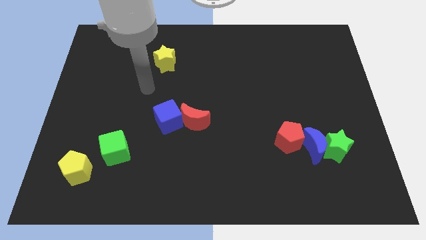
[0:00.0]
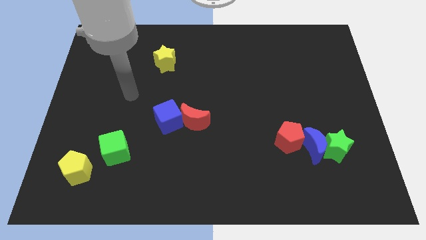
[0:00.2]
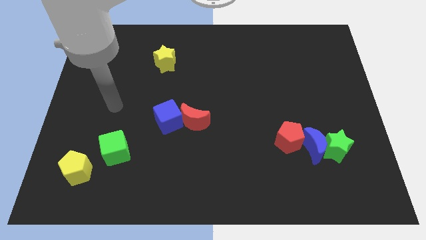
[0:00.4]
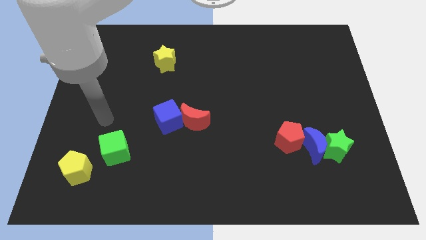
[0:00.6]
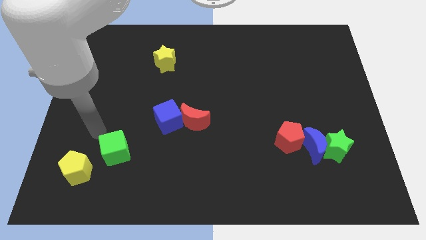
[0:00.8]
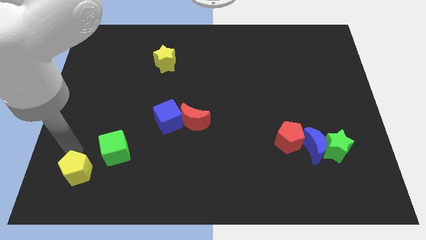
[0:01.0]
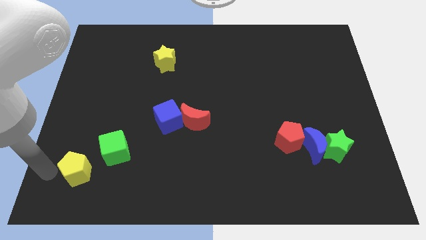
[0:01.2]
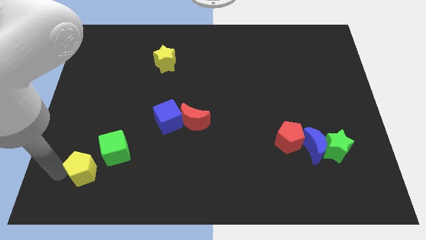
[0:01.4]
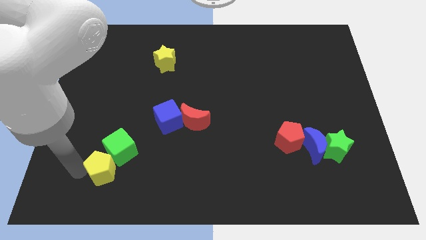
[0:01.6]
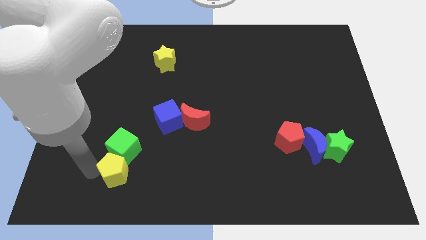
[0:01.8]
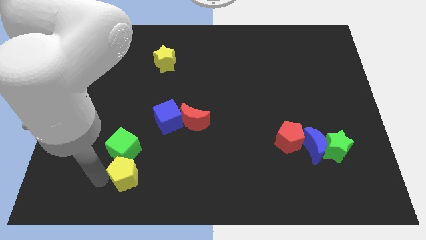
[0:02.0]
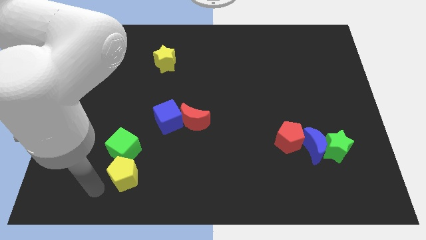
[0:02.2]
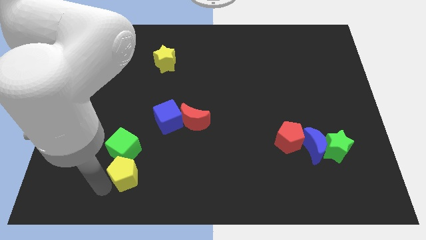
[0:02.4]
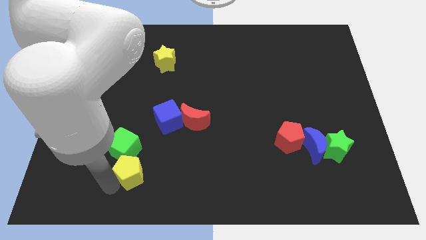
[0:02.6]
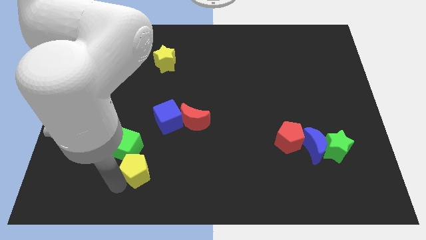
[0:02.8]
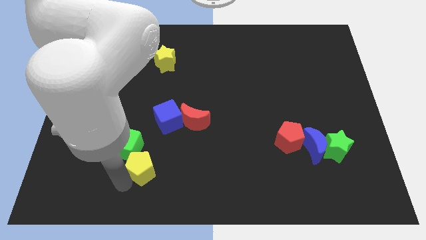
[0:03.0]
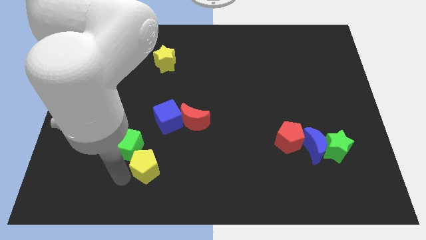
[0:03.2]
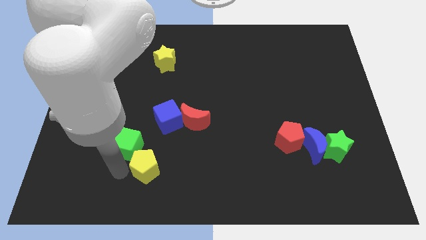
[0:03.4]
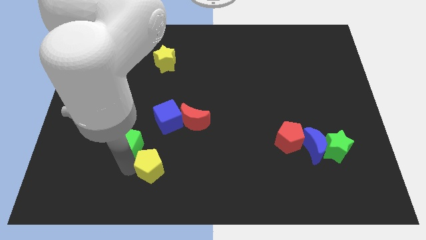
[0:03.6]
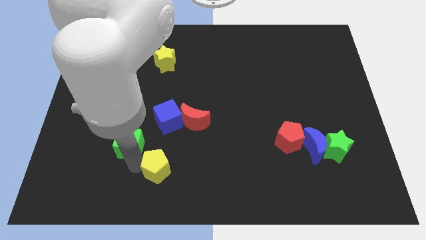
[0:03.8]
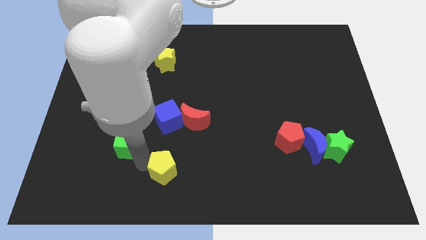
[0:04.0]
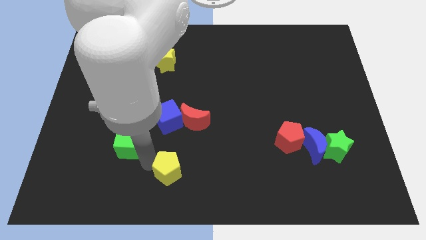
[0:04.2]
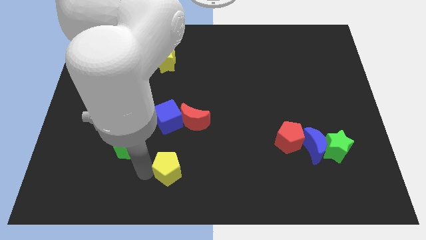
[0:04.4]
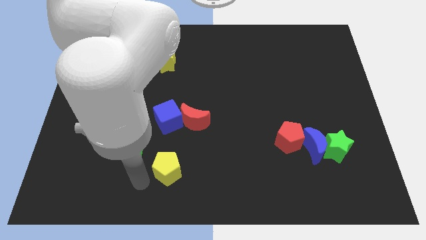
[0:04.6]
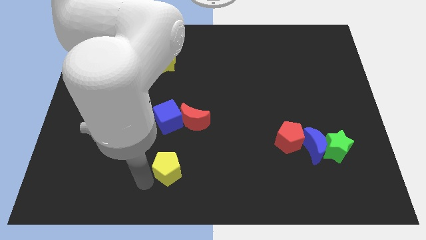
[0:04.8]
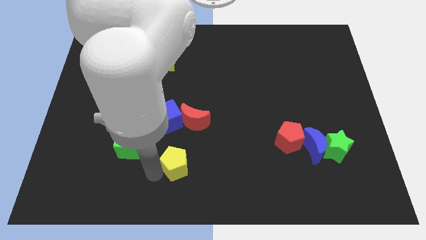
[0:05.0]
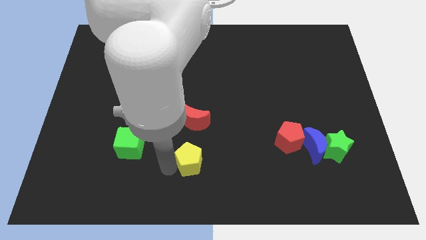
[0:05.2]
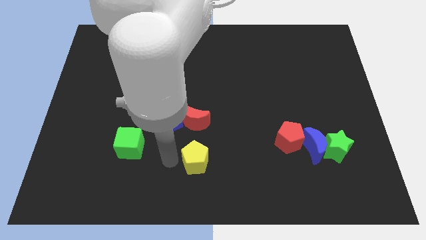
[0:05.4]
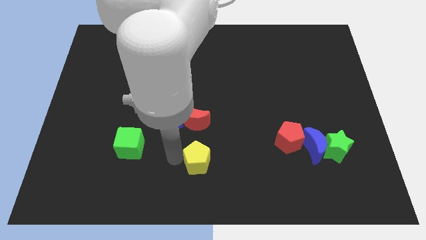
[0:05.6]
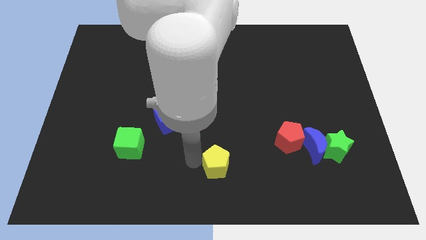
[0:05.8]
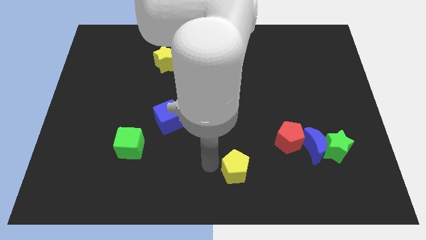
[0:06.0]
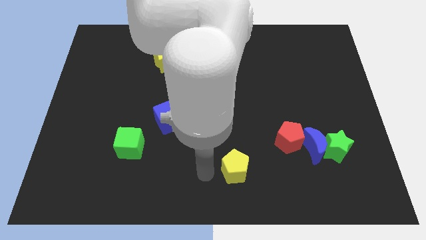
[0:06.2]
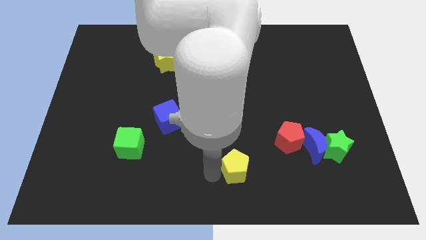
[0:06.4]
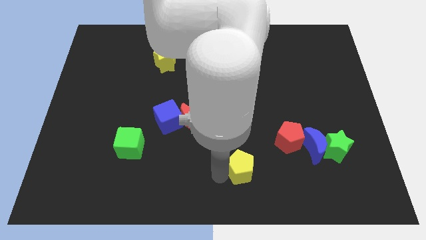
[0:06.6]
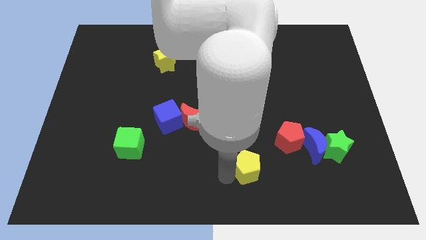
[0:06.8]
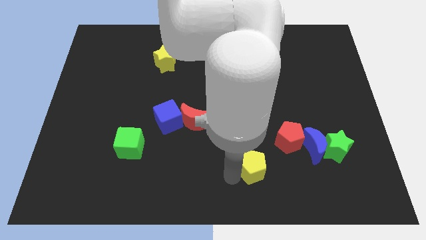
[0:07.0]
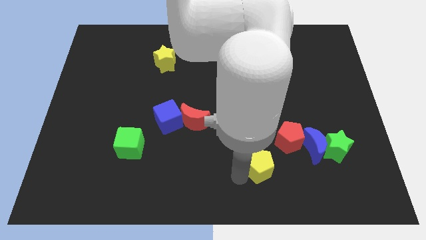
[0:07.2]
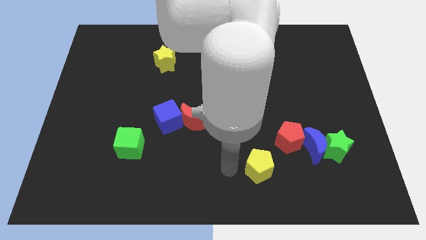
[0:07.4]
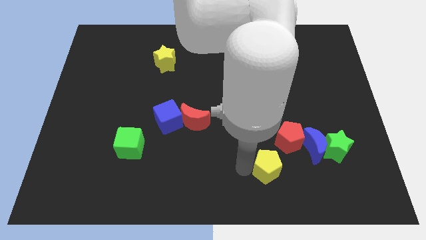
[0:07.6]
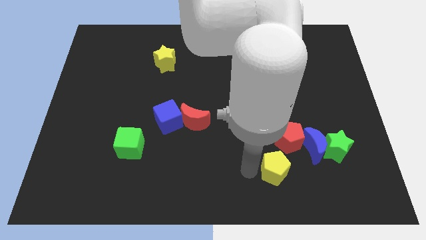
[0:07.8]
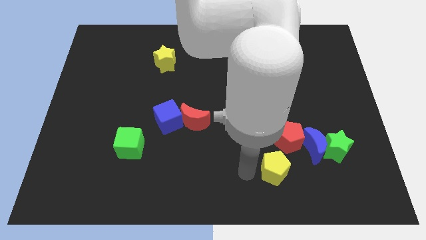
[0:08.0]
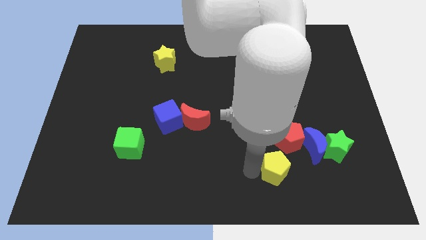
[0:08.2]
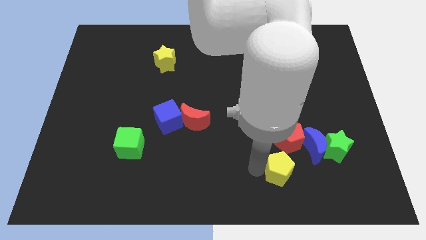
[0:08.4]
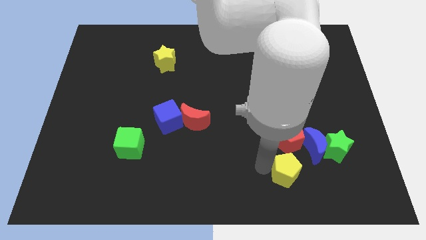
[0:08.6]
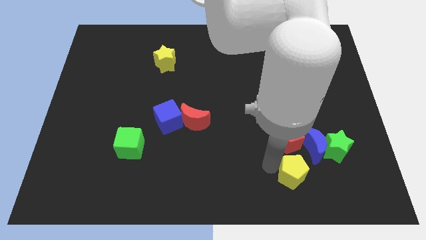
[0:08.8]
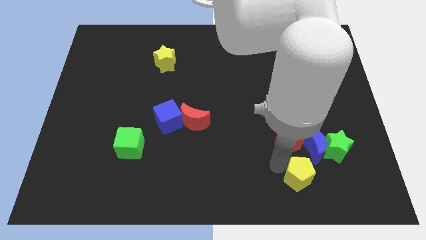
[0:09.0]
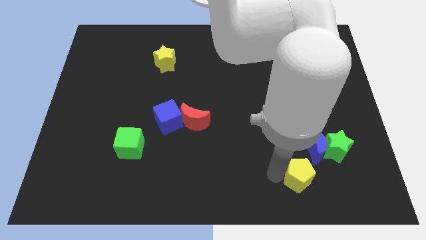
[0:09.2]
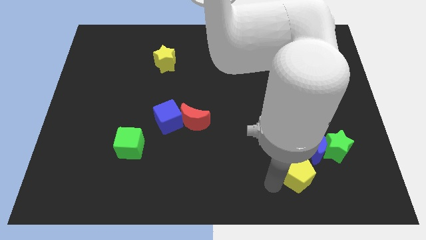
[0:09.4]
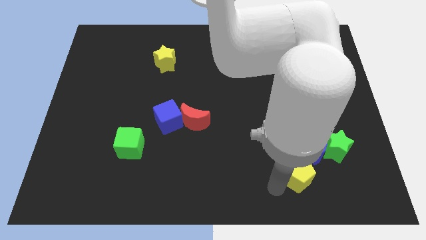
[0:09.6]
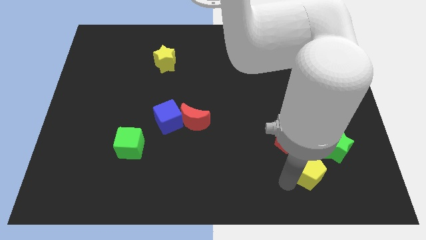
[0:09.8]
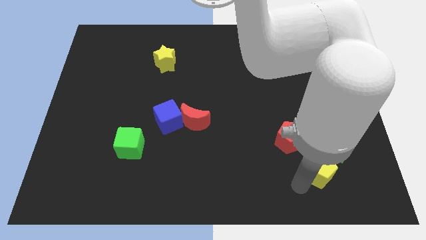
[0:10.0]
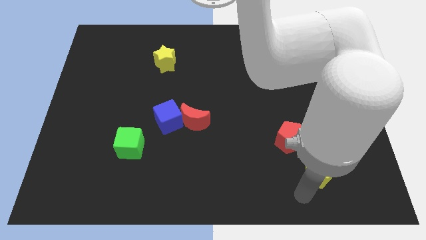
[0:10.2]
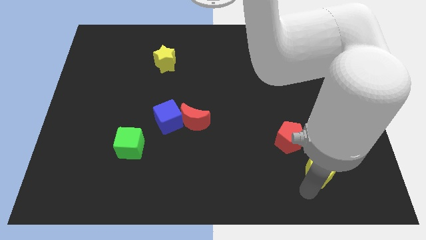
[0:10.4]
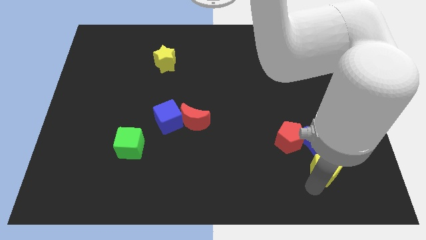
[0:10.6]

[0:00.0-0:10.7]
move the yellow pentagon close to the green star

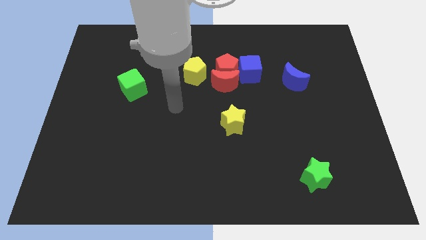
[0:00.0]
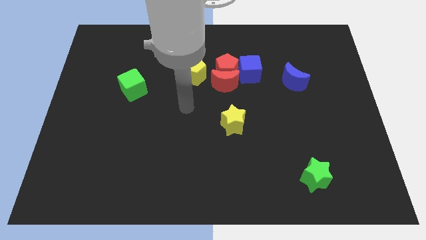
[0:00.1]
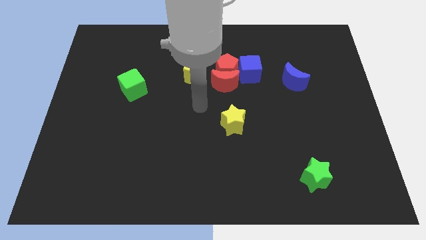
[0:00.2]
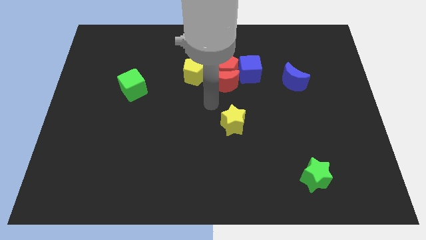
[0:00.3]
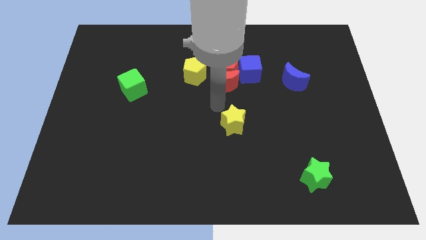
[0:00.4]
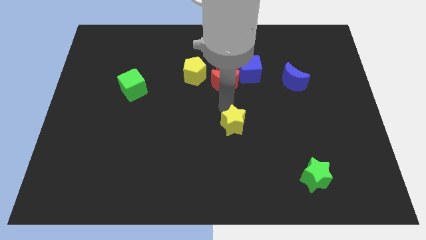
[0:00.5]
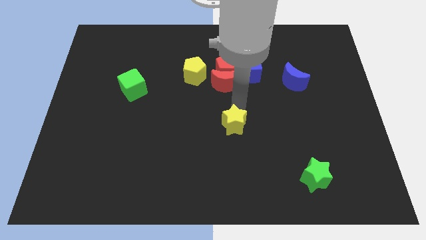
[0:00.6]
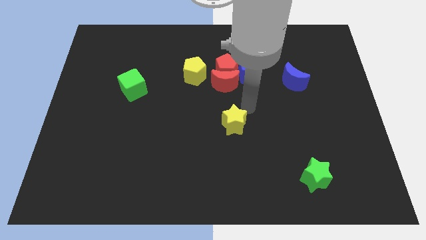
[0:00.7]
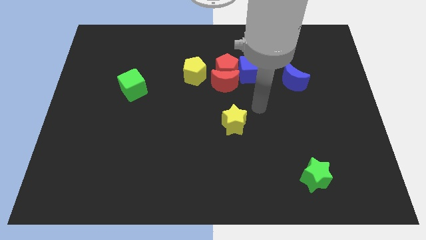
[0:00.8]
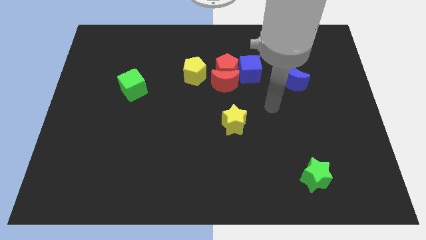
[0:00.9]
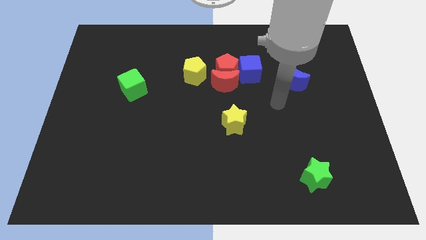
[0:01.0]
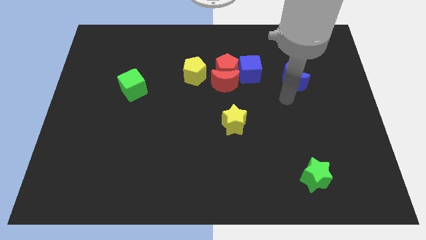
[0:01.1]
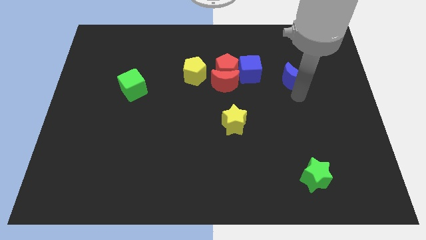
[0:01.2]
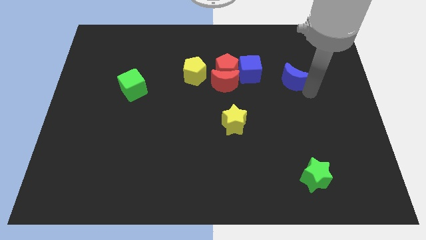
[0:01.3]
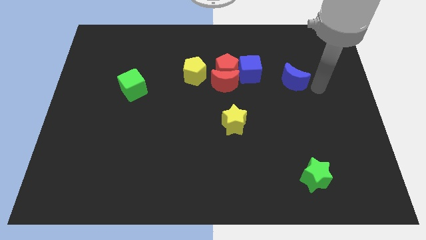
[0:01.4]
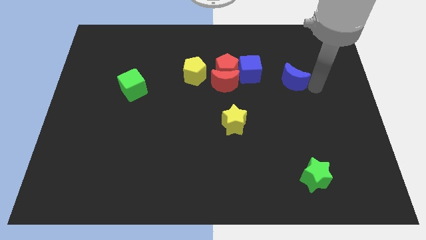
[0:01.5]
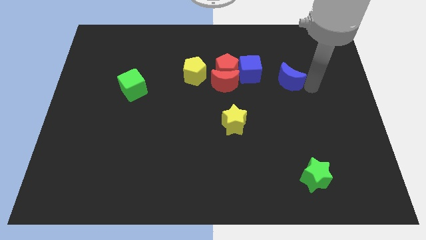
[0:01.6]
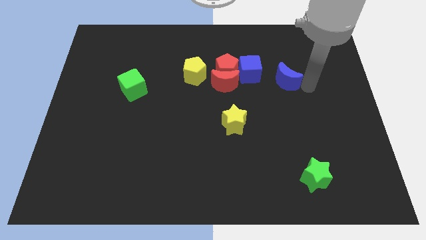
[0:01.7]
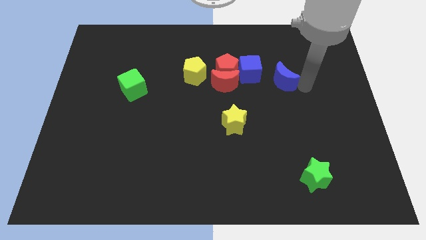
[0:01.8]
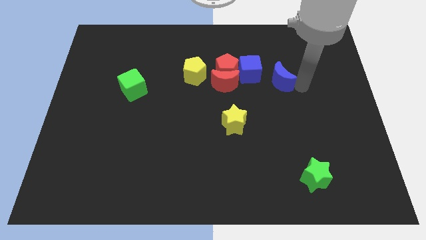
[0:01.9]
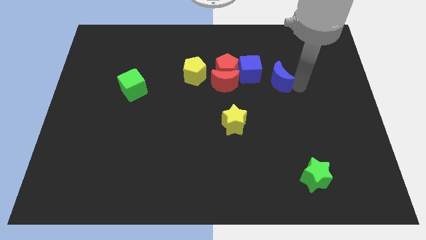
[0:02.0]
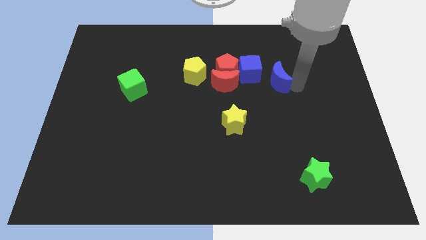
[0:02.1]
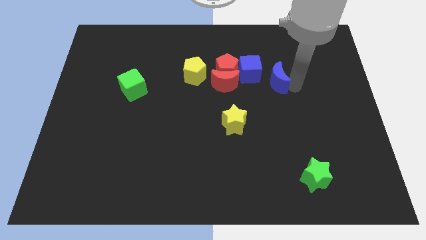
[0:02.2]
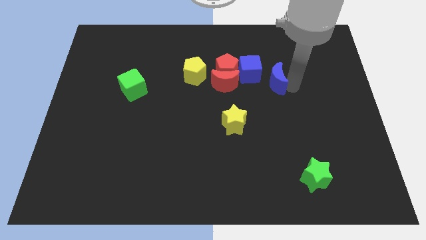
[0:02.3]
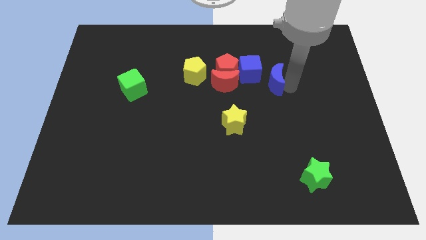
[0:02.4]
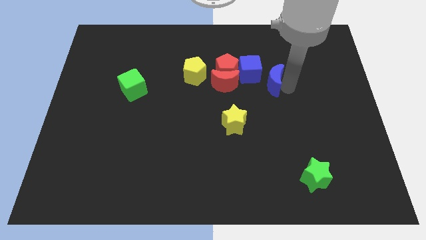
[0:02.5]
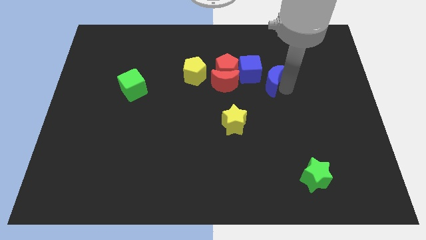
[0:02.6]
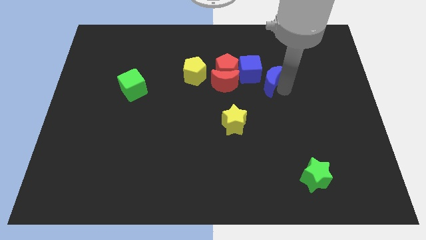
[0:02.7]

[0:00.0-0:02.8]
move the blue moon towards the blue cube

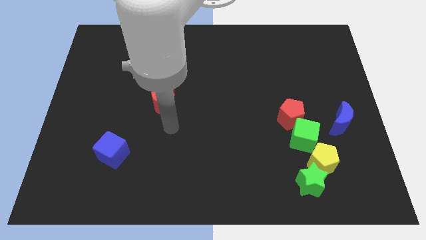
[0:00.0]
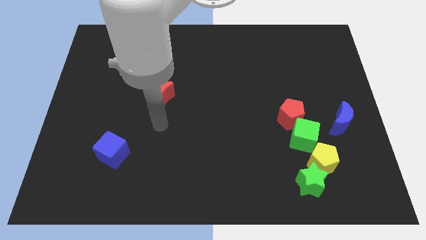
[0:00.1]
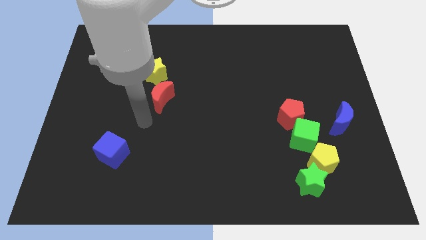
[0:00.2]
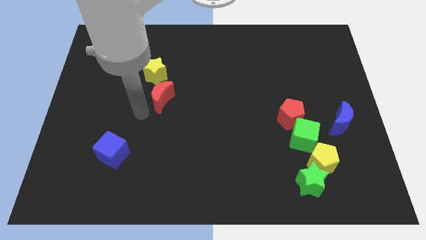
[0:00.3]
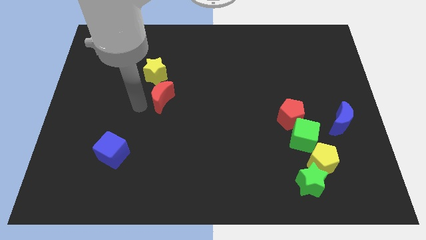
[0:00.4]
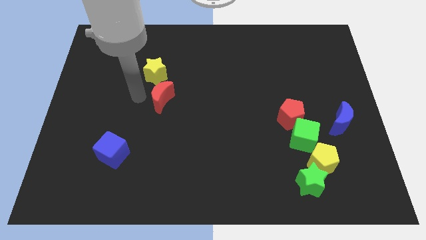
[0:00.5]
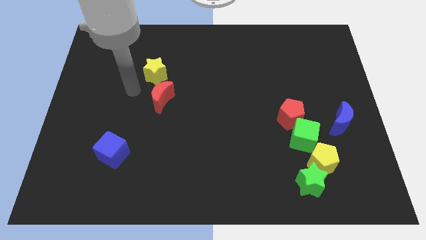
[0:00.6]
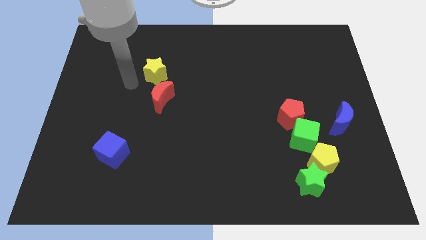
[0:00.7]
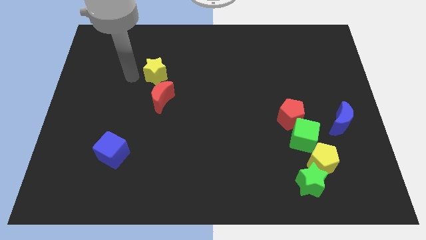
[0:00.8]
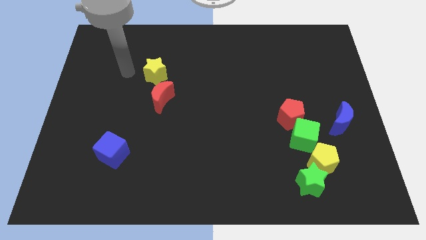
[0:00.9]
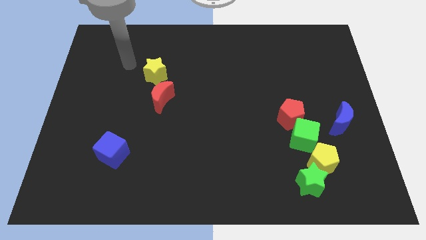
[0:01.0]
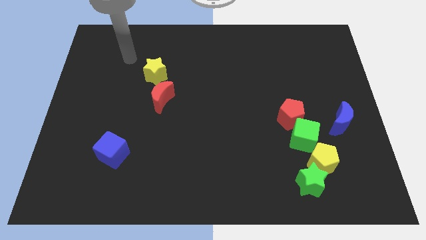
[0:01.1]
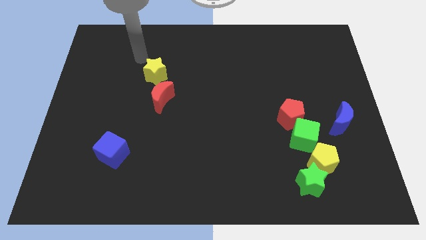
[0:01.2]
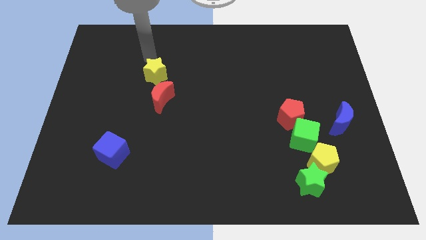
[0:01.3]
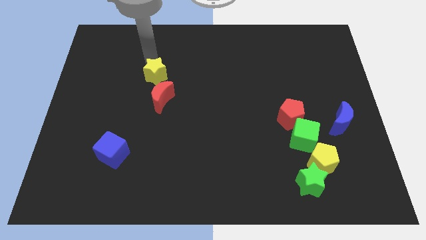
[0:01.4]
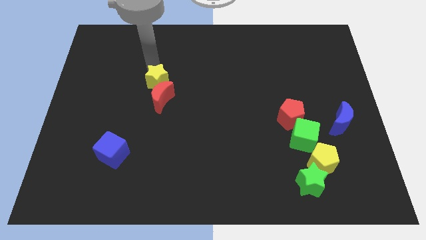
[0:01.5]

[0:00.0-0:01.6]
slide the yellow star towards the red moon
